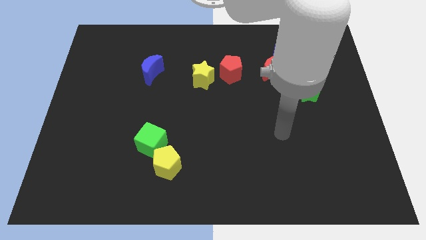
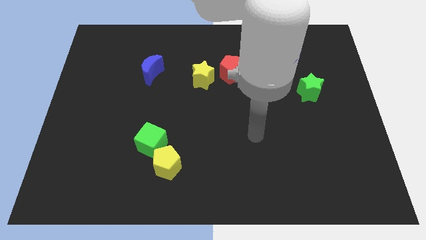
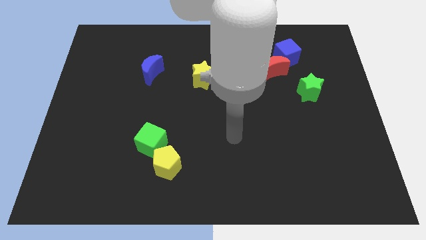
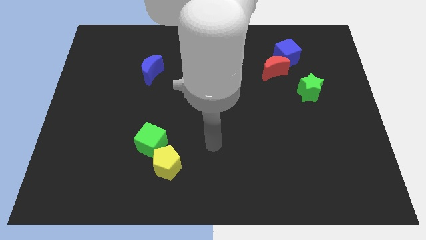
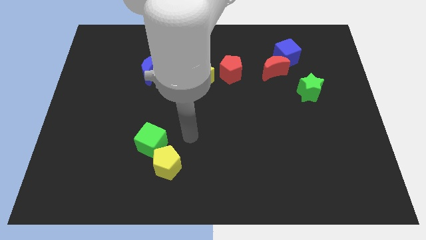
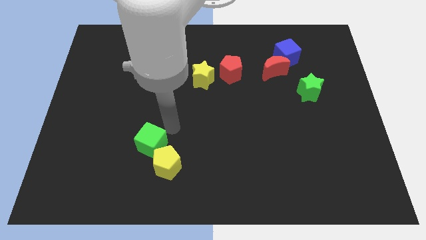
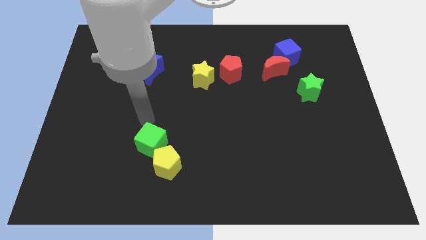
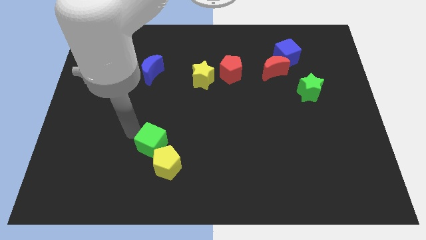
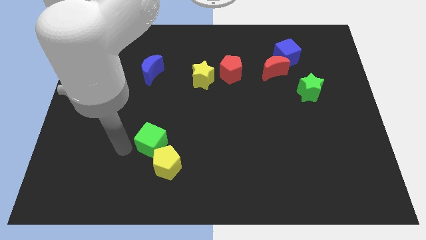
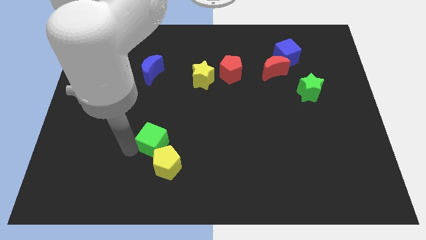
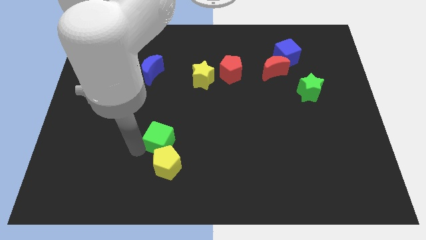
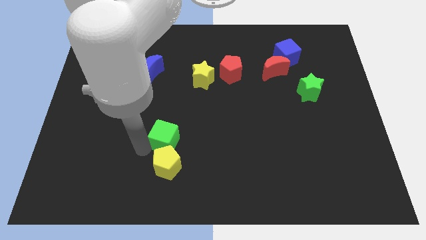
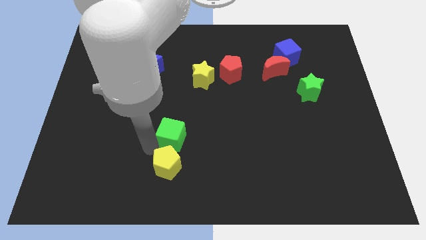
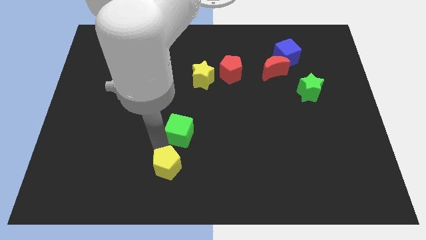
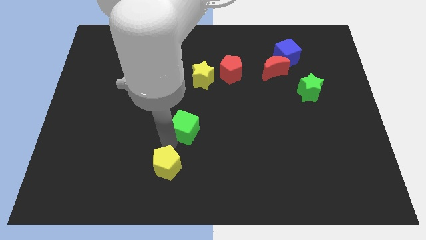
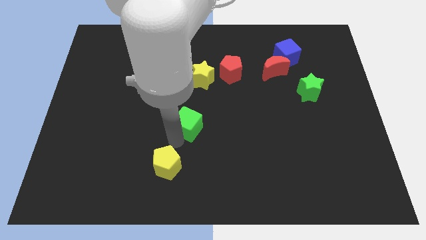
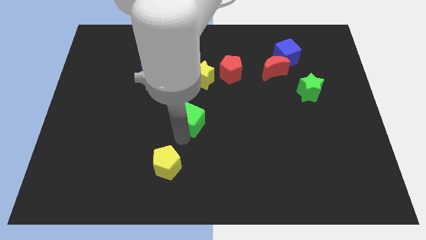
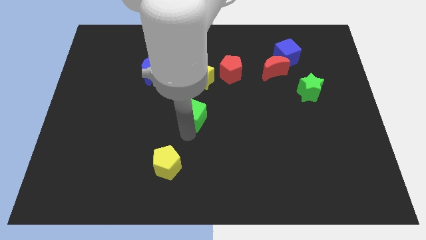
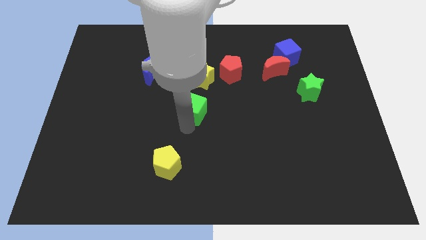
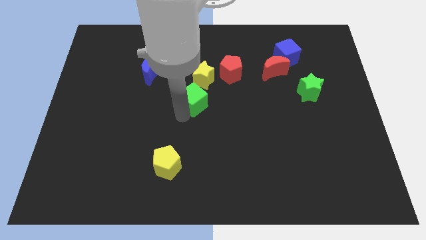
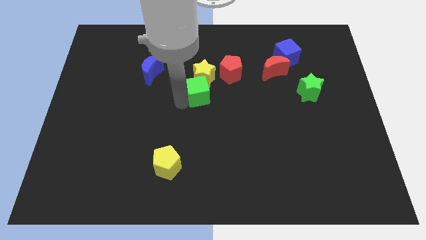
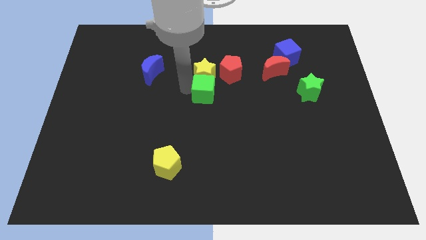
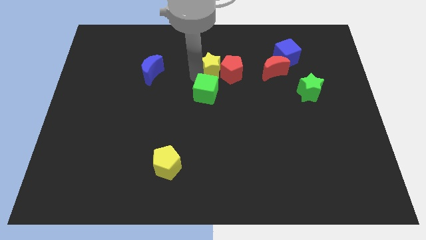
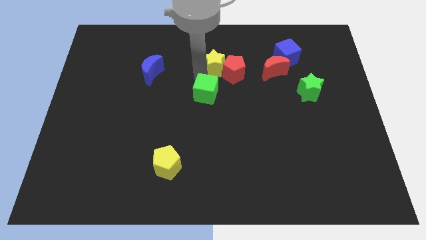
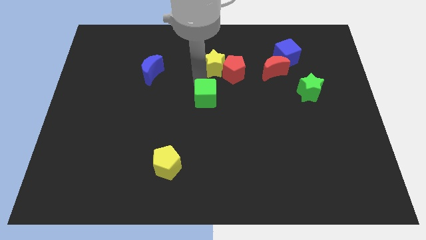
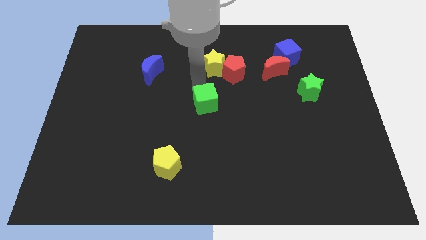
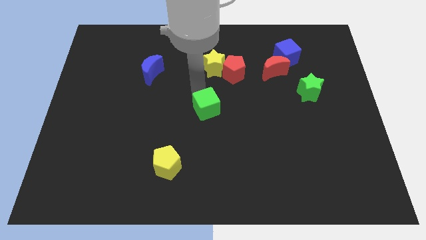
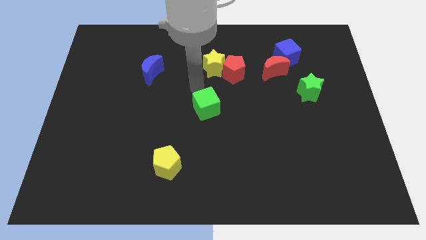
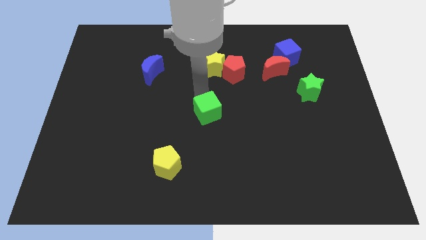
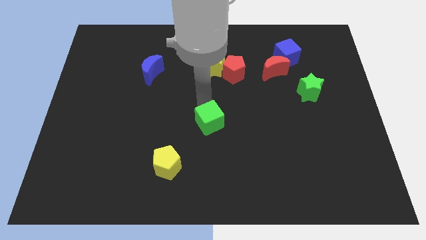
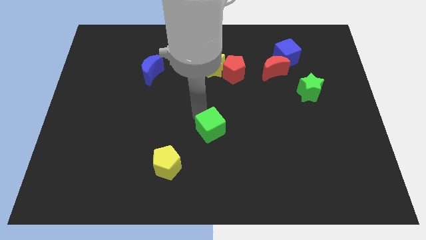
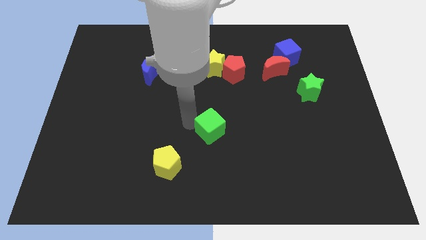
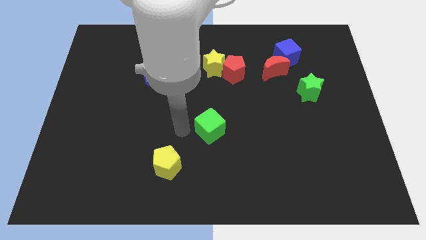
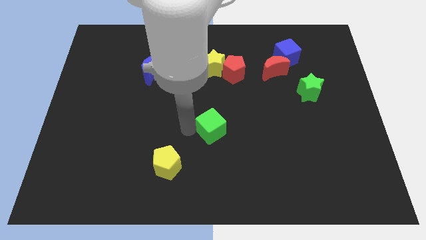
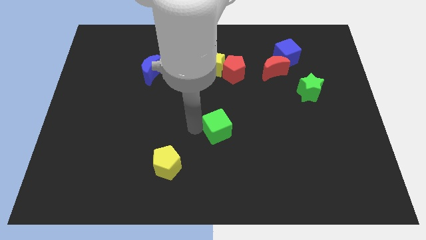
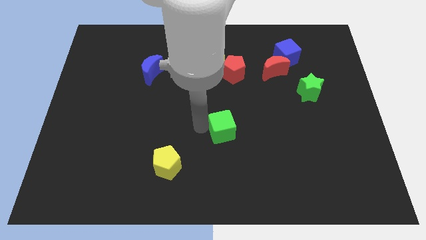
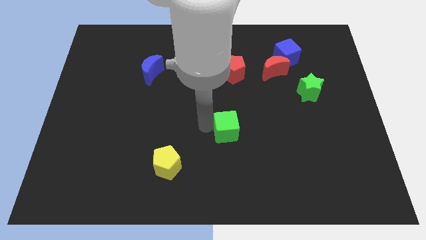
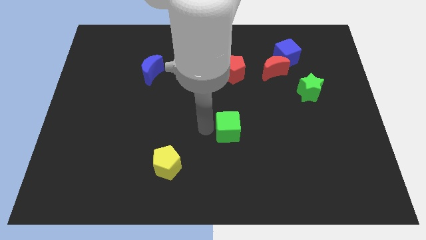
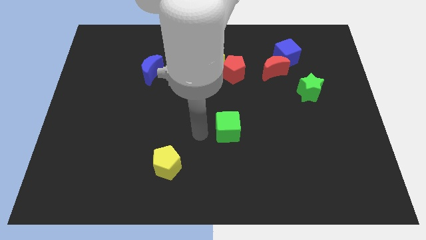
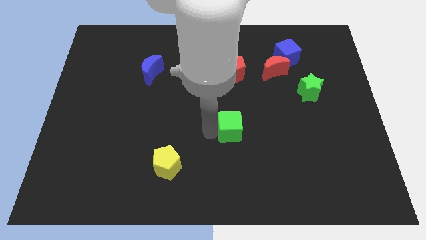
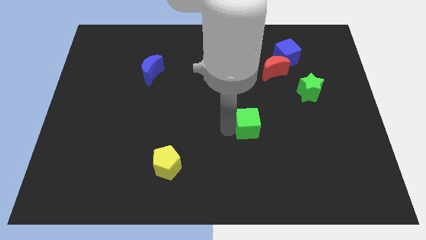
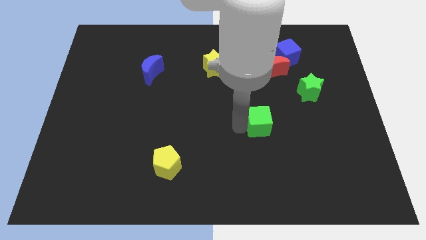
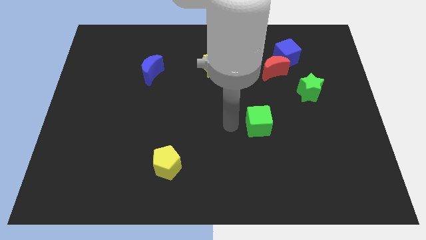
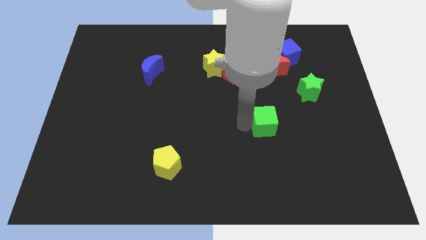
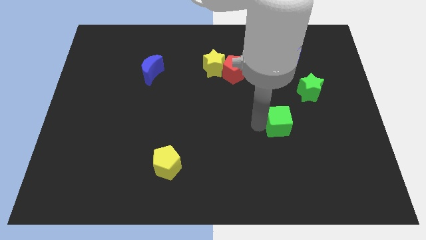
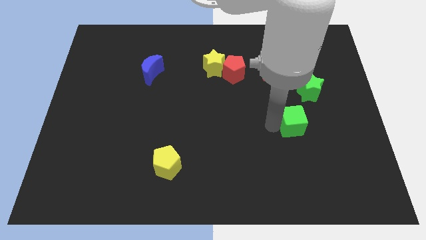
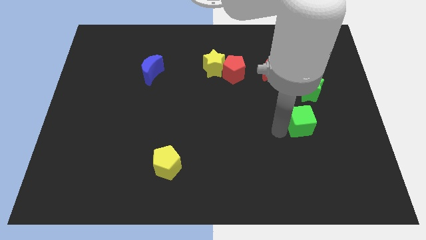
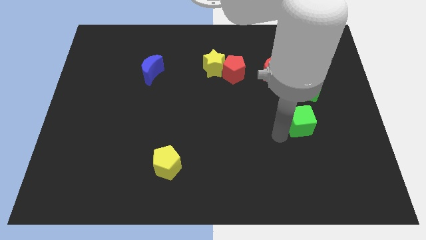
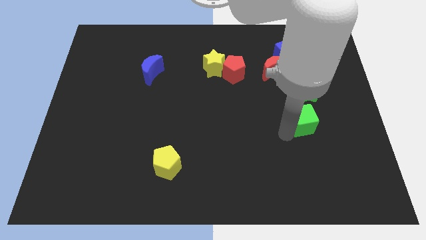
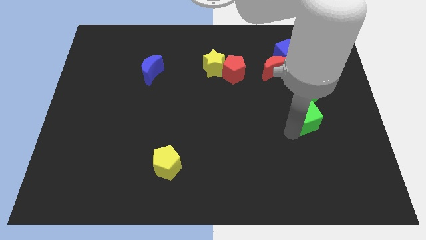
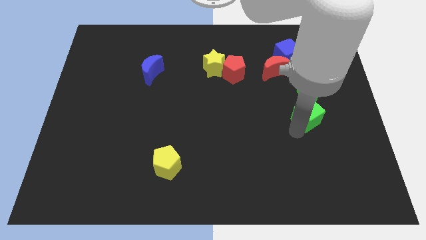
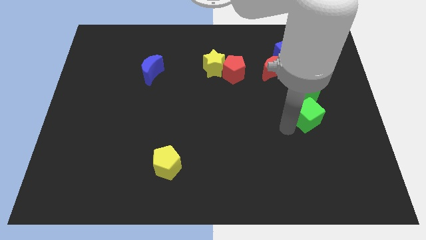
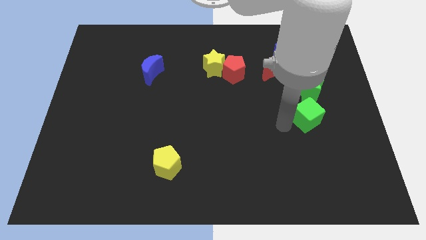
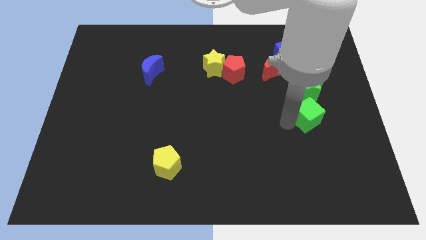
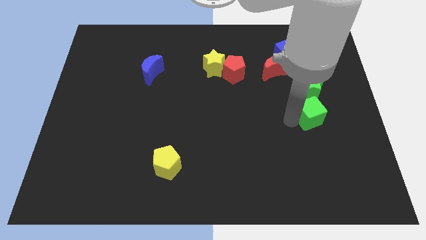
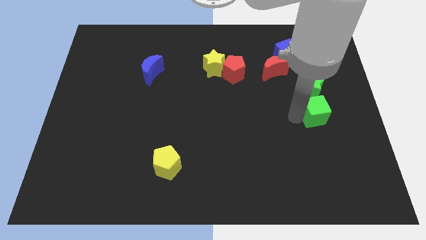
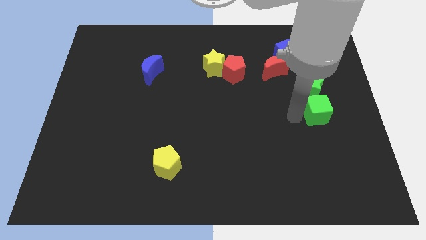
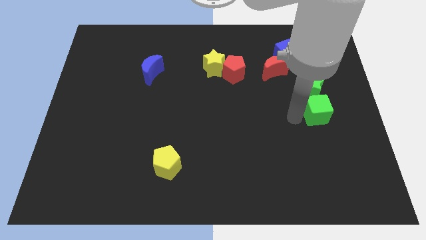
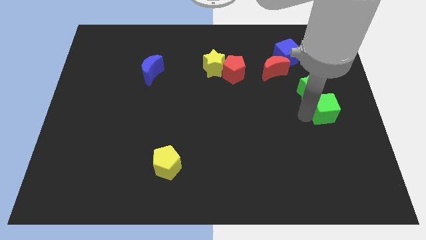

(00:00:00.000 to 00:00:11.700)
push the green cube to the right side of the board
